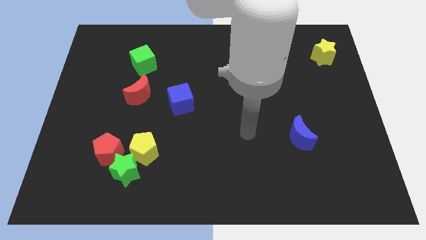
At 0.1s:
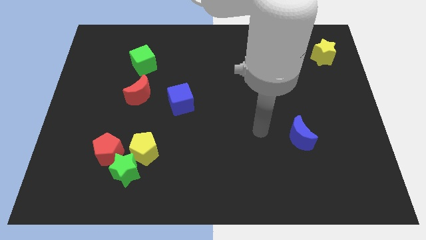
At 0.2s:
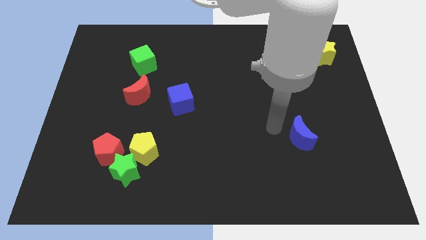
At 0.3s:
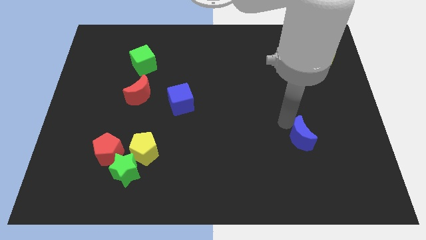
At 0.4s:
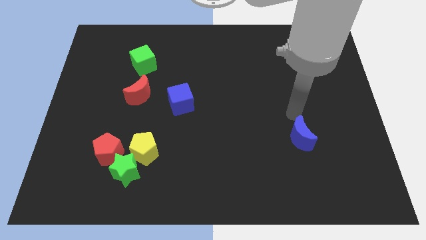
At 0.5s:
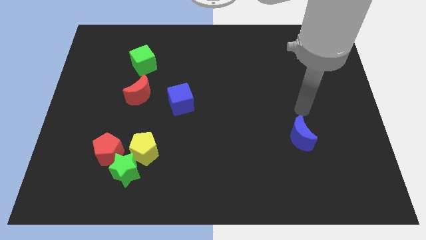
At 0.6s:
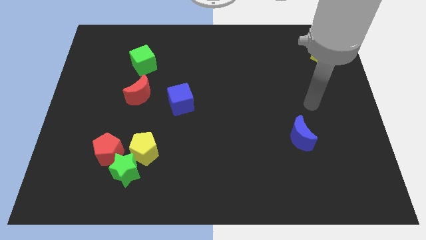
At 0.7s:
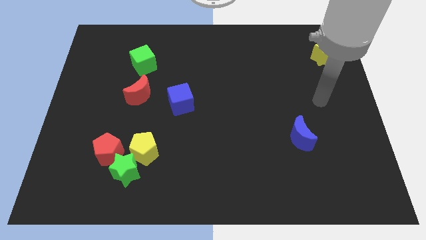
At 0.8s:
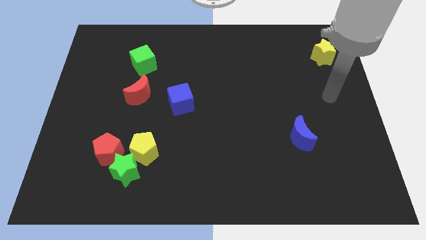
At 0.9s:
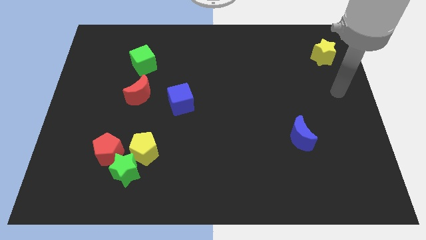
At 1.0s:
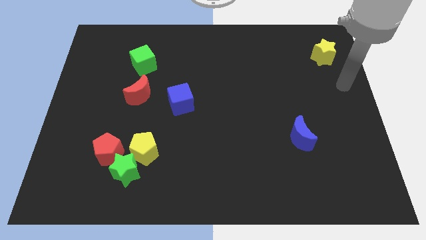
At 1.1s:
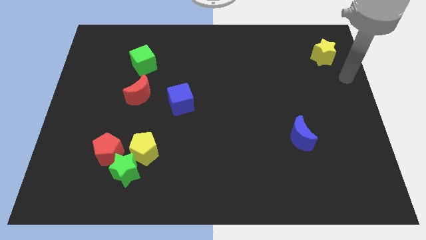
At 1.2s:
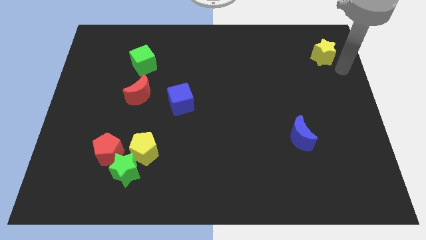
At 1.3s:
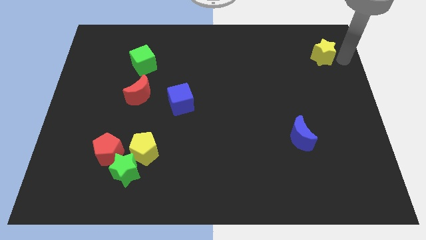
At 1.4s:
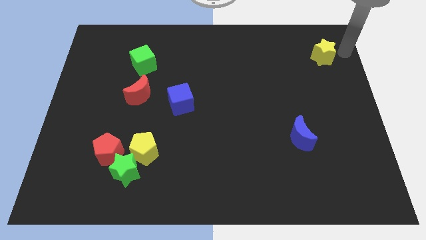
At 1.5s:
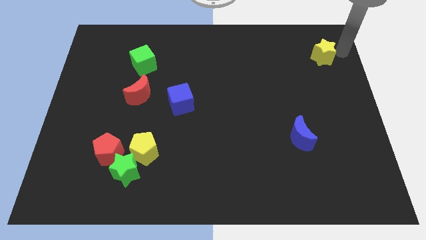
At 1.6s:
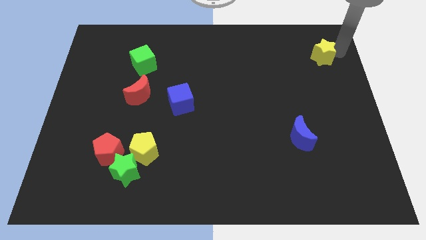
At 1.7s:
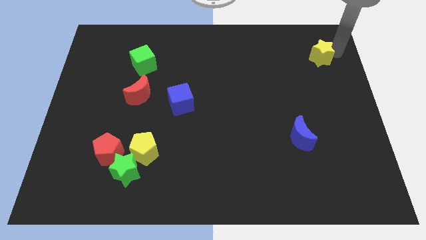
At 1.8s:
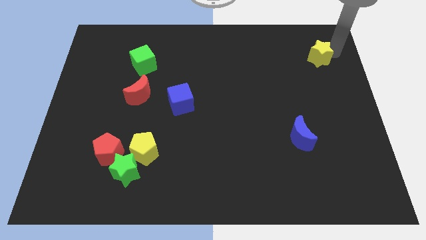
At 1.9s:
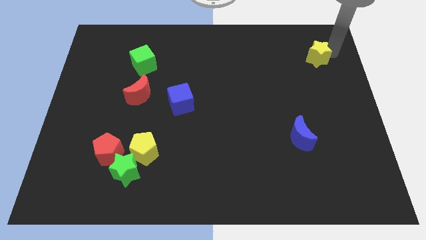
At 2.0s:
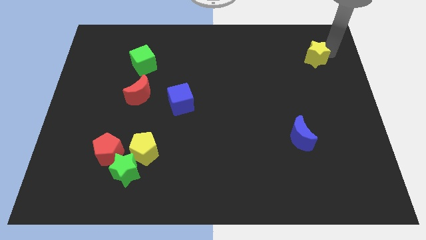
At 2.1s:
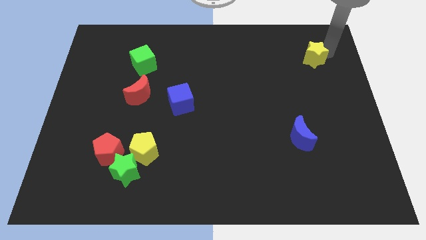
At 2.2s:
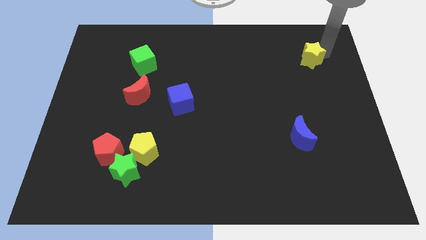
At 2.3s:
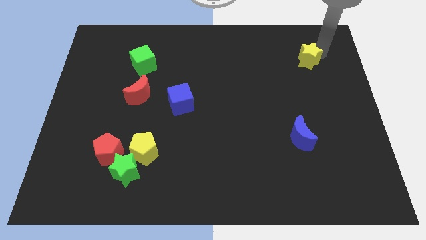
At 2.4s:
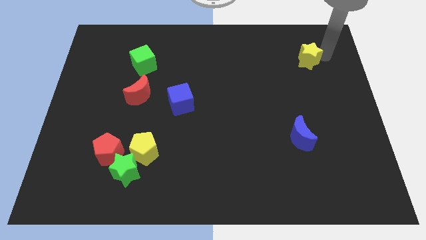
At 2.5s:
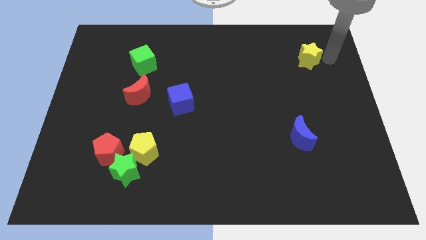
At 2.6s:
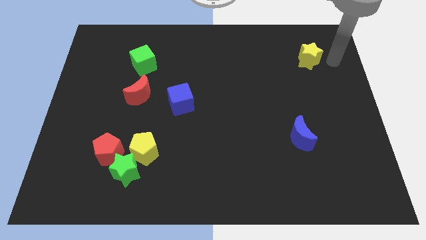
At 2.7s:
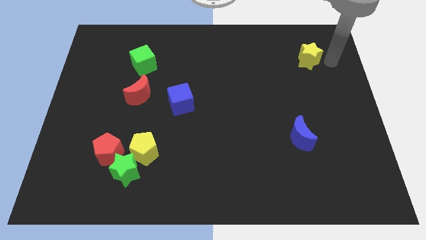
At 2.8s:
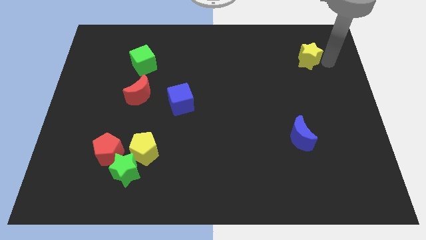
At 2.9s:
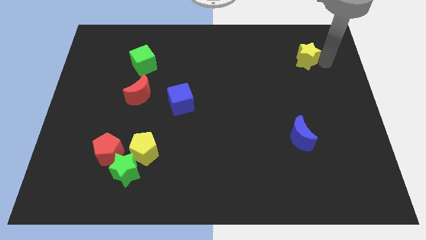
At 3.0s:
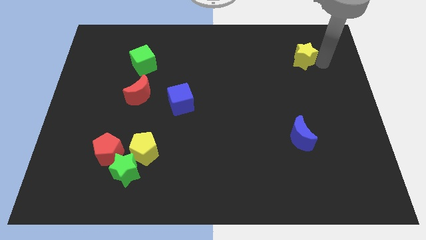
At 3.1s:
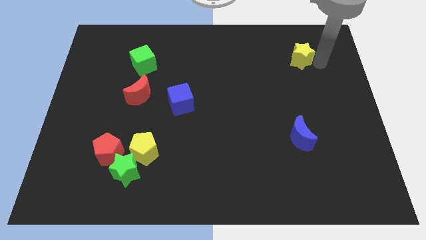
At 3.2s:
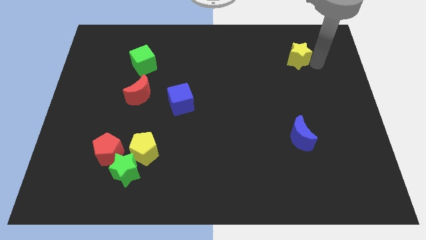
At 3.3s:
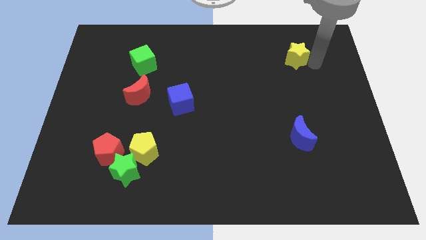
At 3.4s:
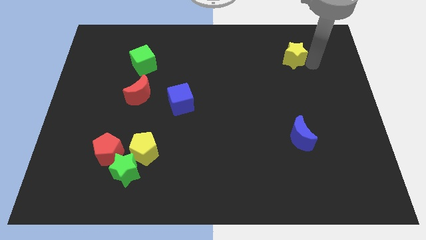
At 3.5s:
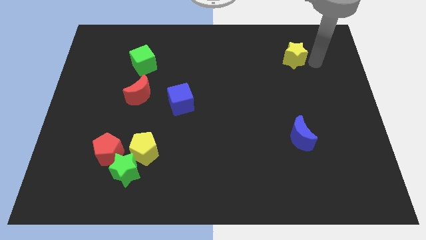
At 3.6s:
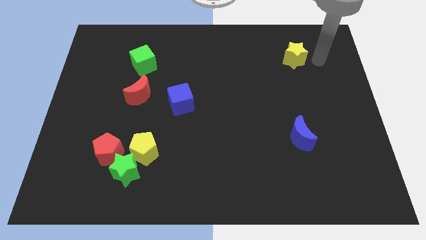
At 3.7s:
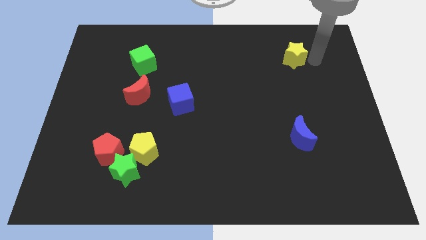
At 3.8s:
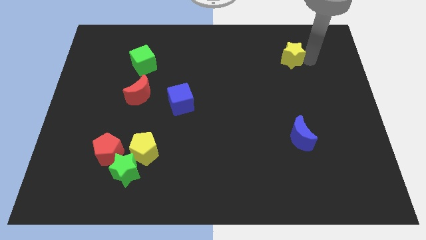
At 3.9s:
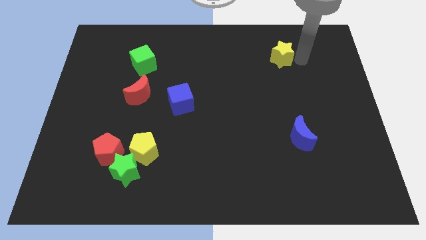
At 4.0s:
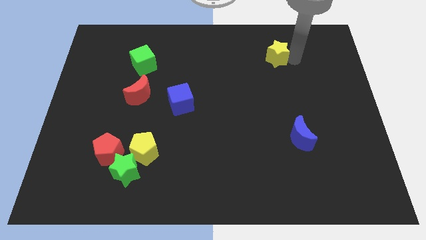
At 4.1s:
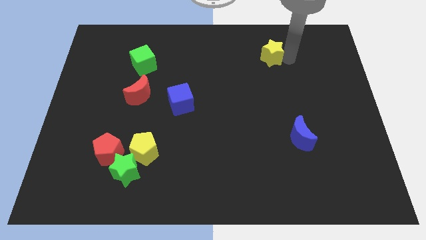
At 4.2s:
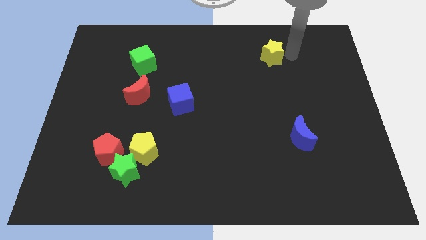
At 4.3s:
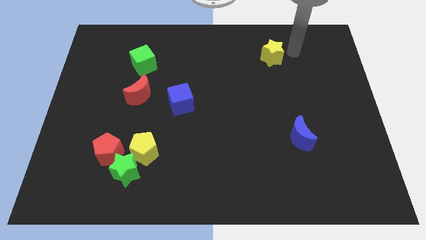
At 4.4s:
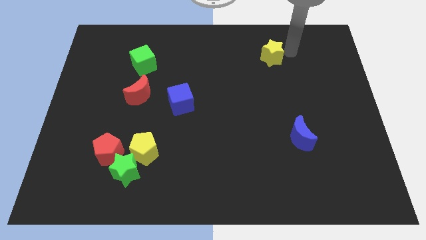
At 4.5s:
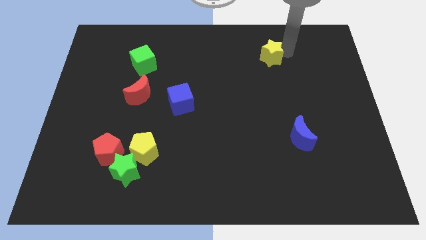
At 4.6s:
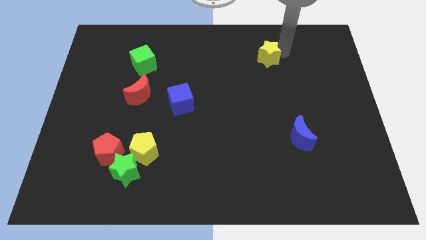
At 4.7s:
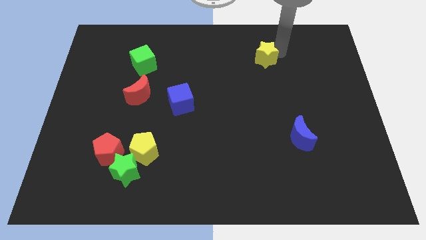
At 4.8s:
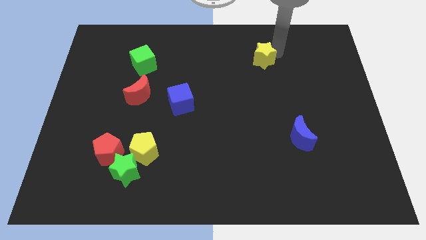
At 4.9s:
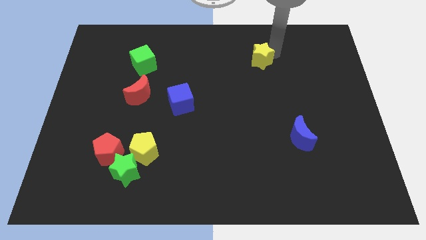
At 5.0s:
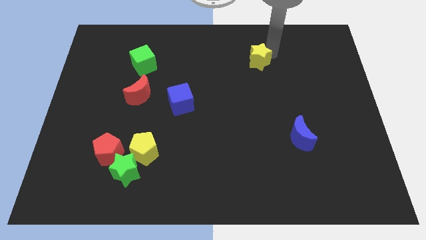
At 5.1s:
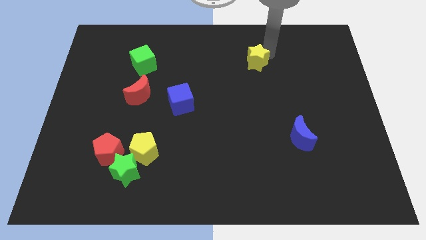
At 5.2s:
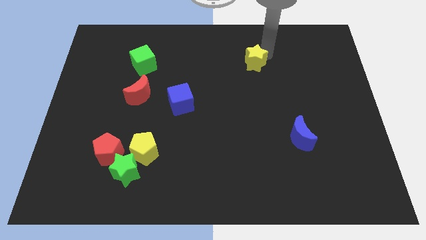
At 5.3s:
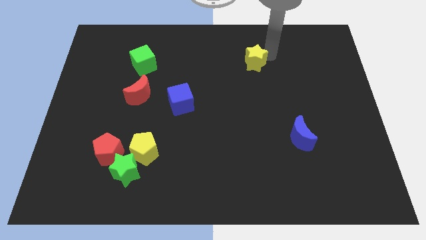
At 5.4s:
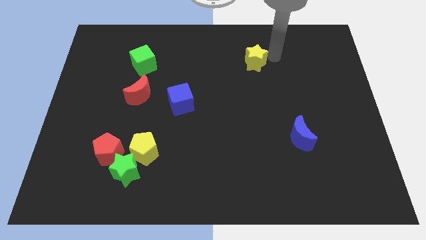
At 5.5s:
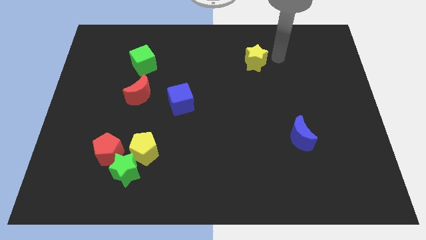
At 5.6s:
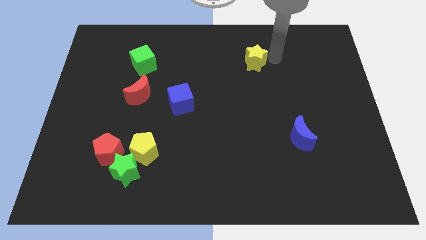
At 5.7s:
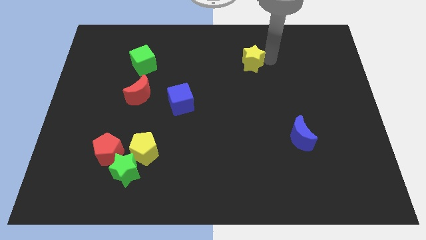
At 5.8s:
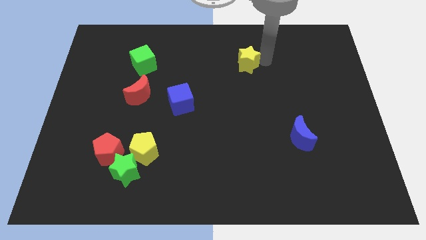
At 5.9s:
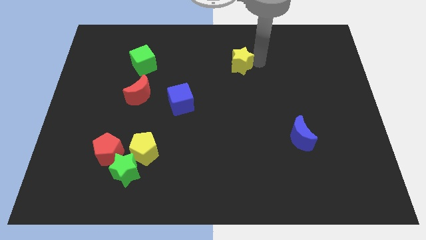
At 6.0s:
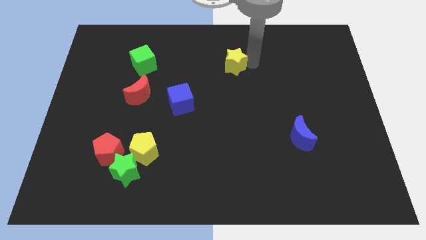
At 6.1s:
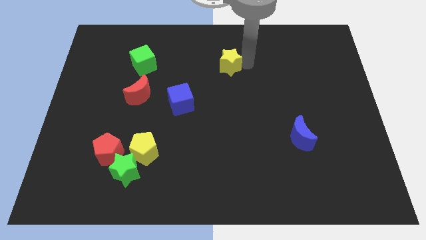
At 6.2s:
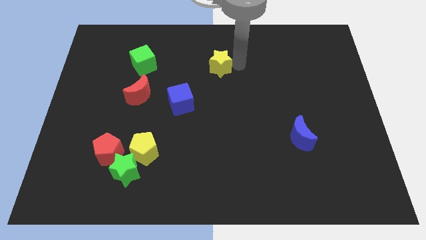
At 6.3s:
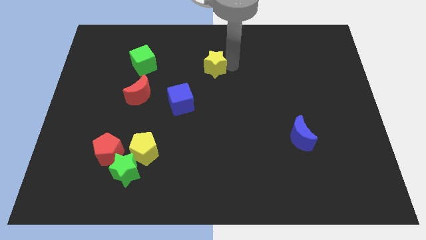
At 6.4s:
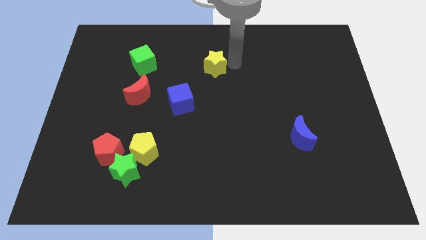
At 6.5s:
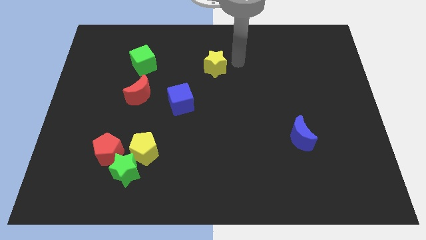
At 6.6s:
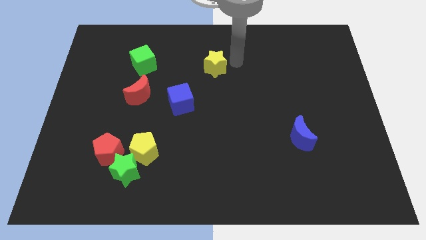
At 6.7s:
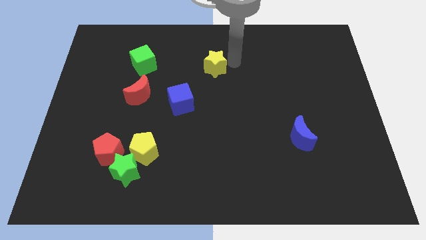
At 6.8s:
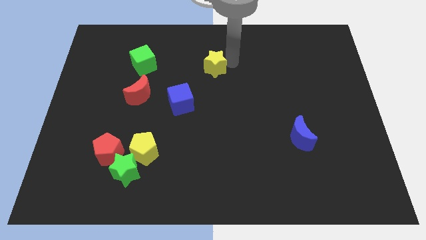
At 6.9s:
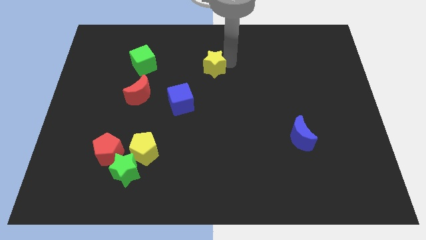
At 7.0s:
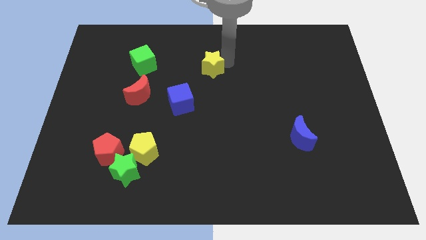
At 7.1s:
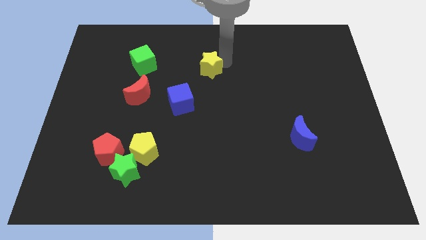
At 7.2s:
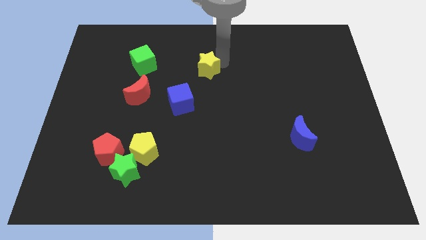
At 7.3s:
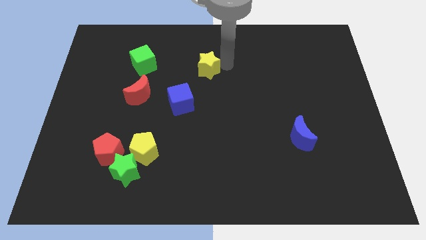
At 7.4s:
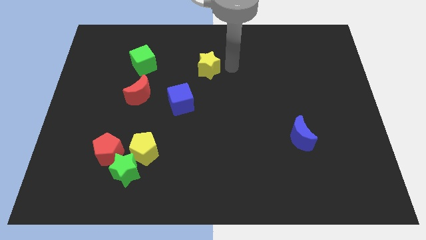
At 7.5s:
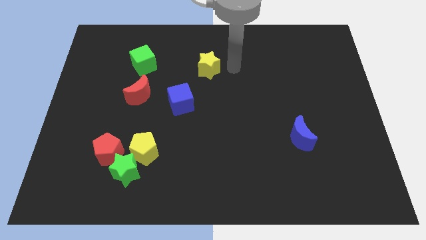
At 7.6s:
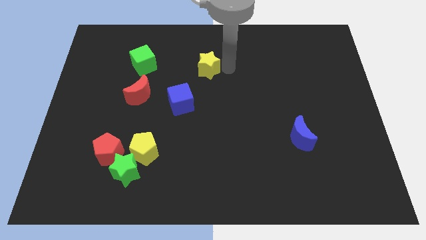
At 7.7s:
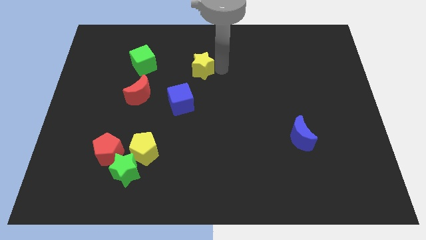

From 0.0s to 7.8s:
put the yellow star above the blue cube

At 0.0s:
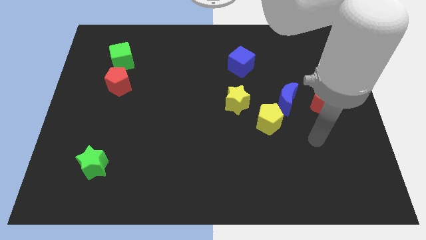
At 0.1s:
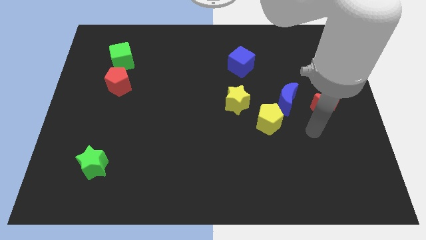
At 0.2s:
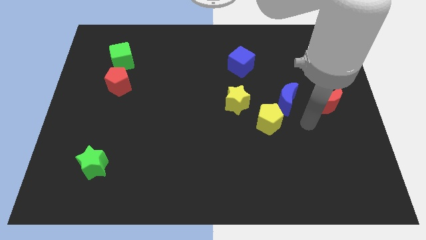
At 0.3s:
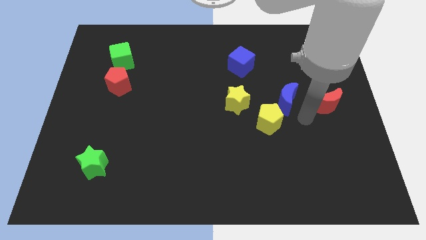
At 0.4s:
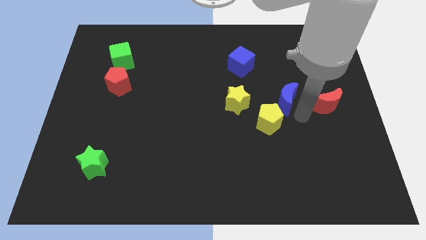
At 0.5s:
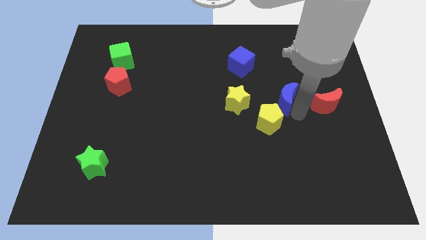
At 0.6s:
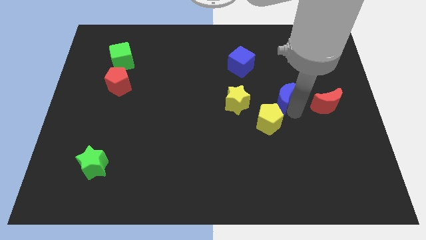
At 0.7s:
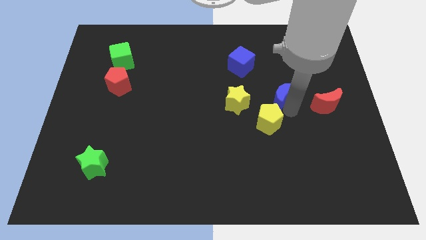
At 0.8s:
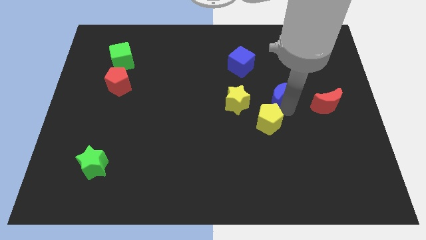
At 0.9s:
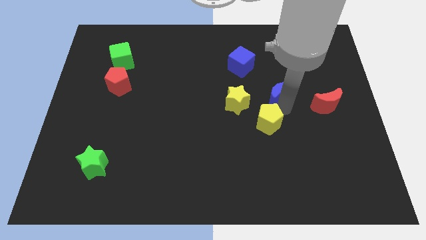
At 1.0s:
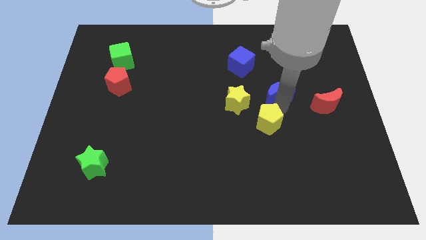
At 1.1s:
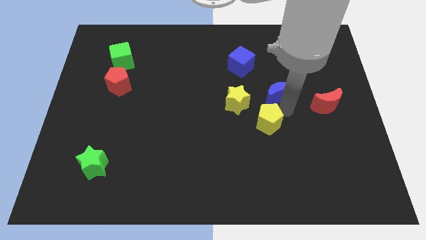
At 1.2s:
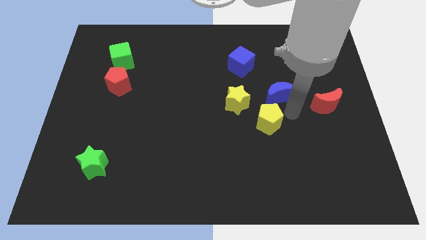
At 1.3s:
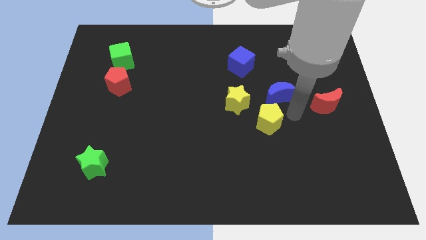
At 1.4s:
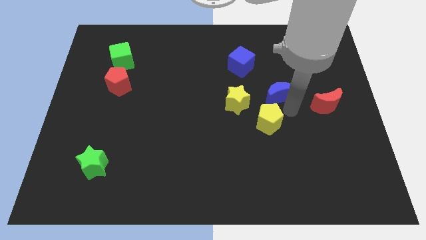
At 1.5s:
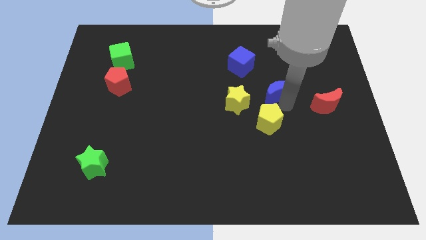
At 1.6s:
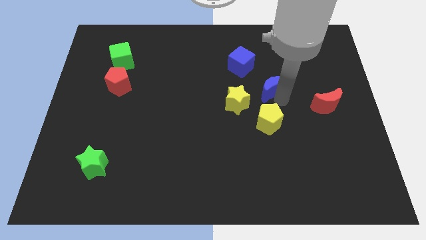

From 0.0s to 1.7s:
slide the blue moon to the bottom right side of the blue cube
